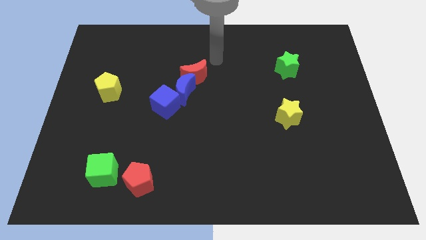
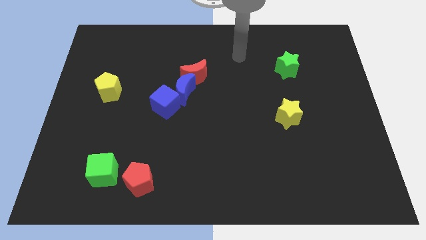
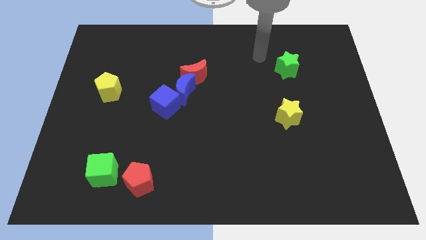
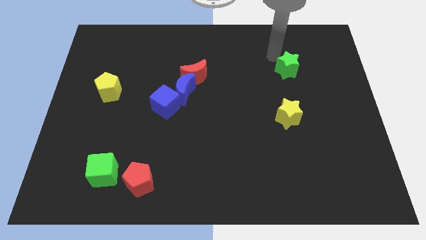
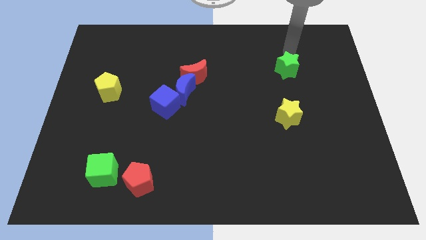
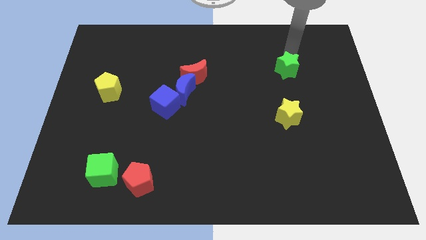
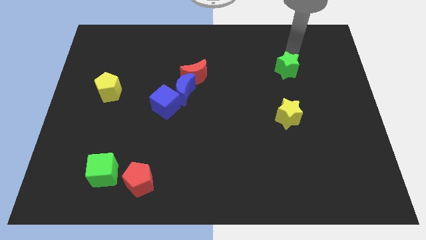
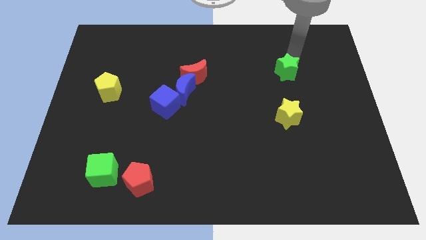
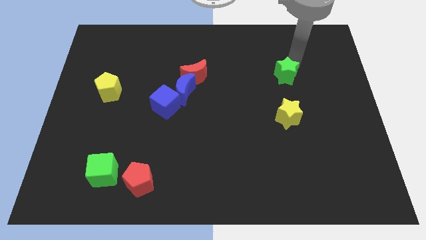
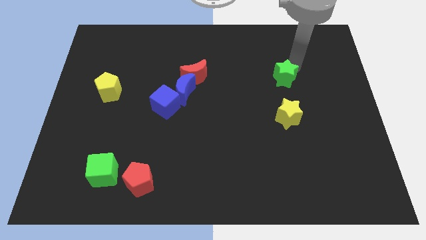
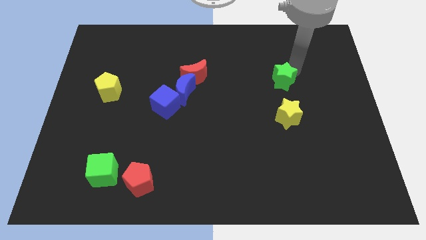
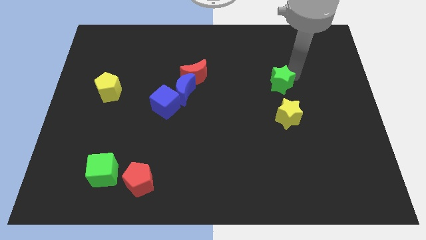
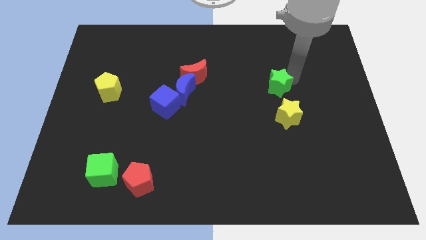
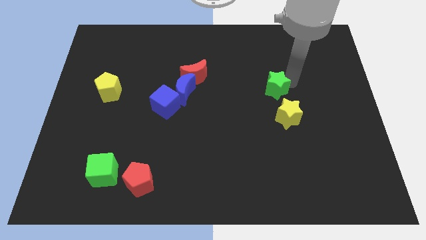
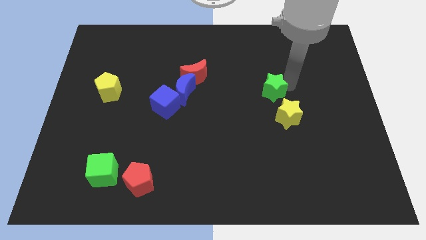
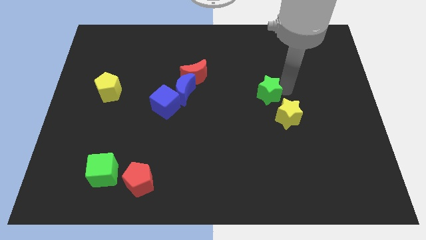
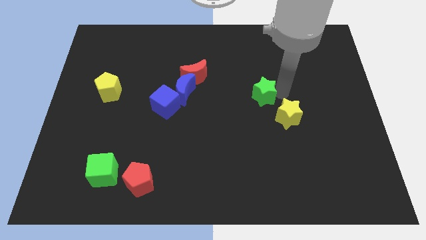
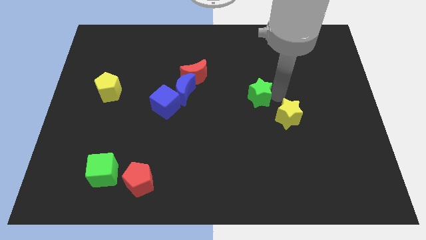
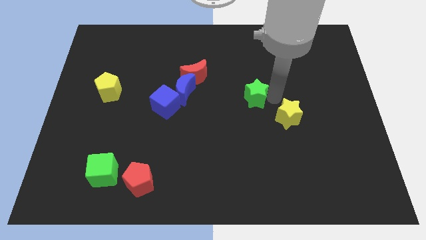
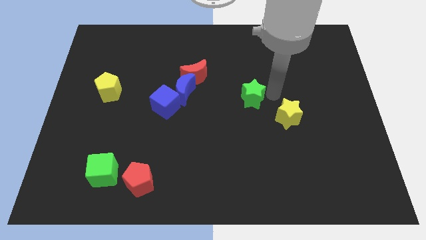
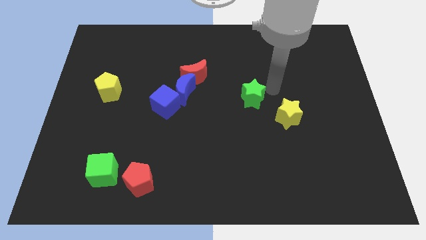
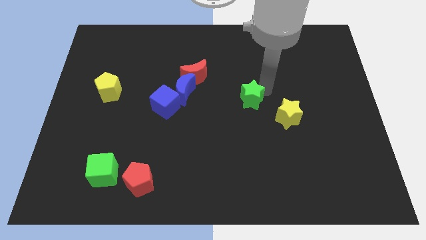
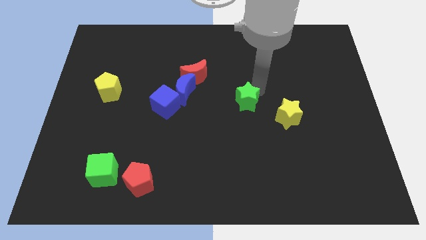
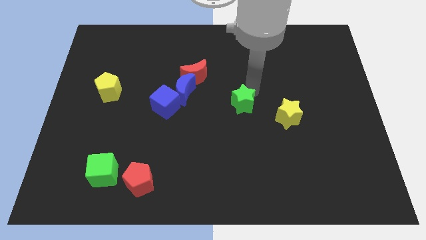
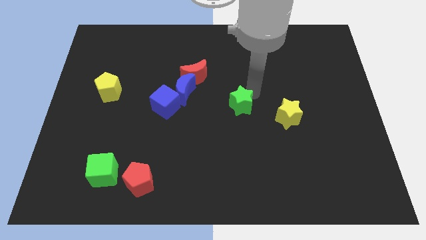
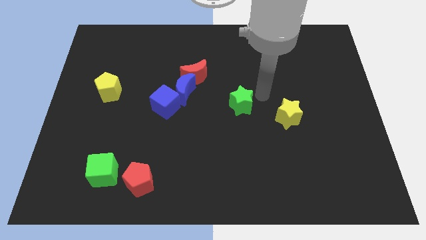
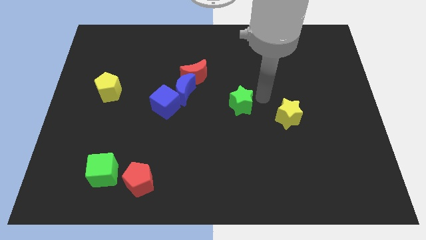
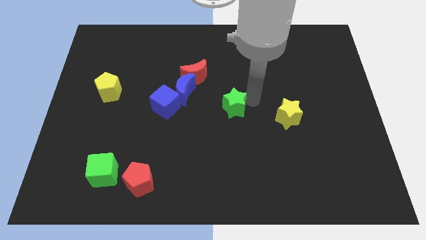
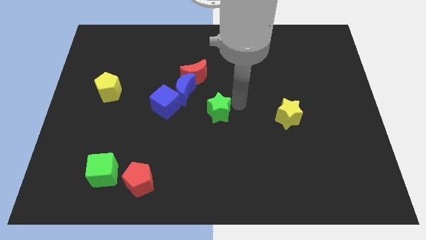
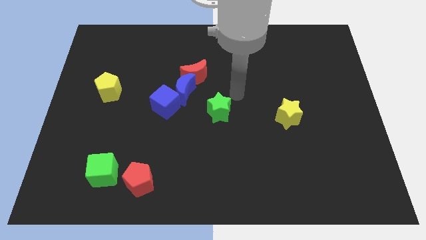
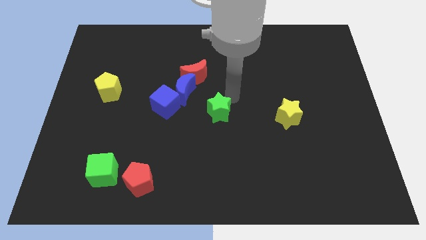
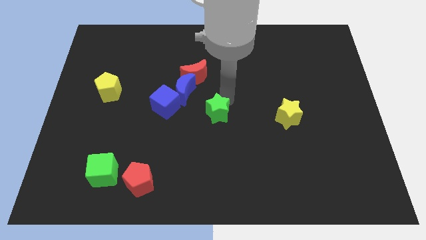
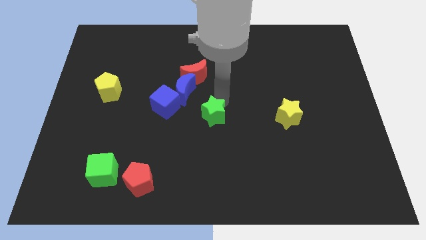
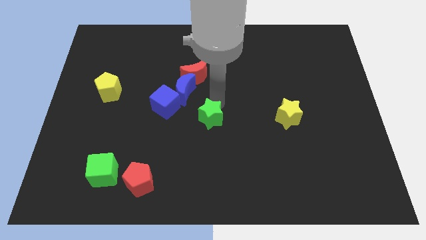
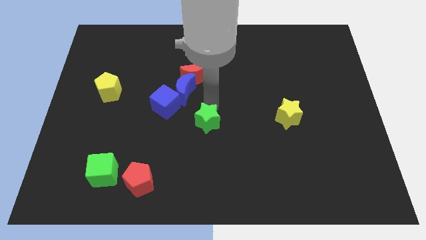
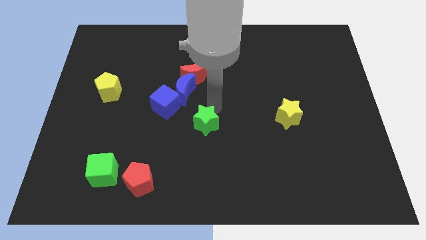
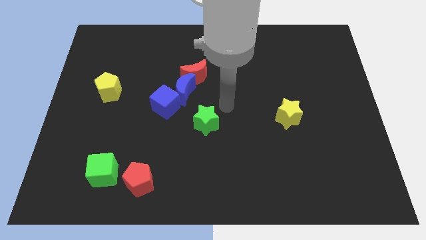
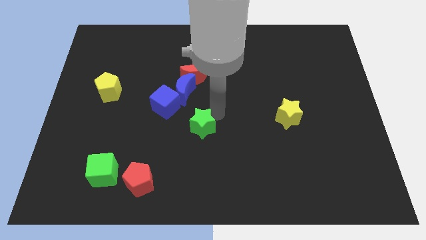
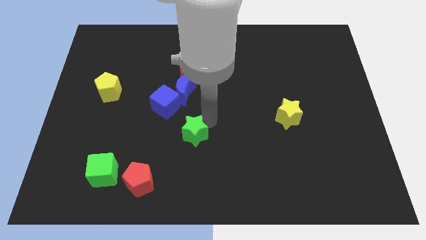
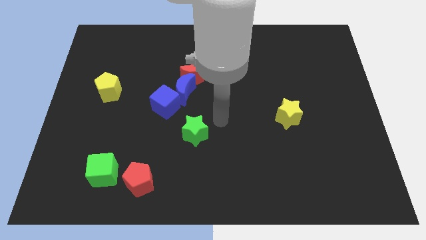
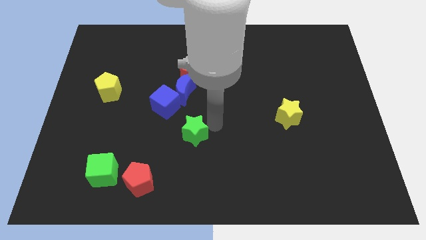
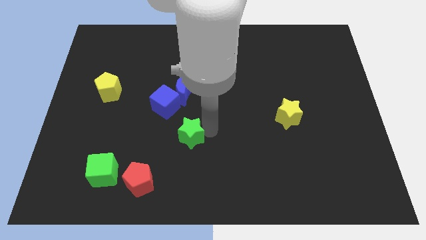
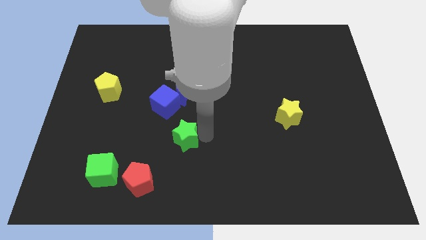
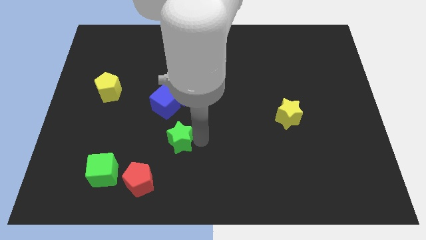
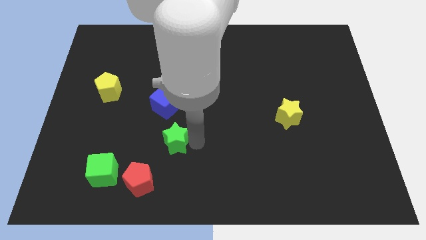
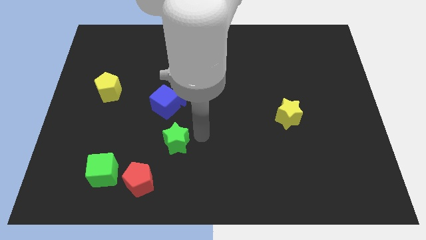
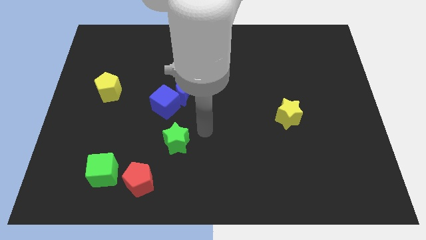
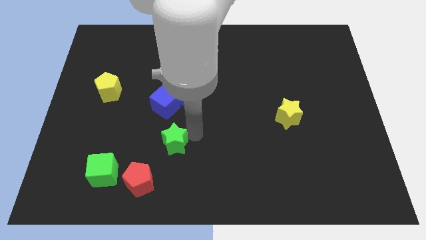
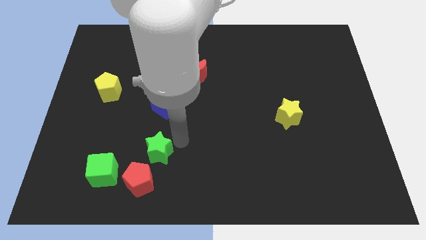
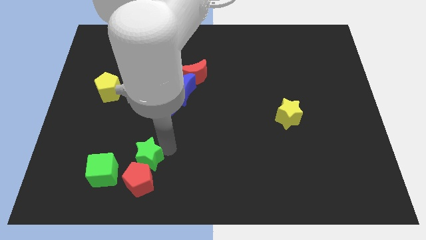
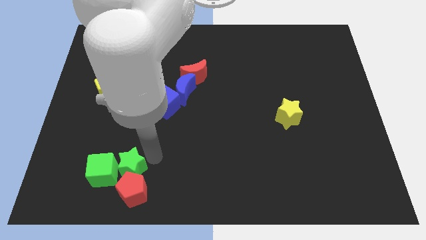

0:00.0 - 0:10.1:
put the green star next to the green cube

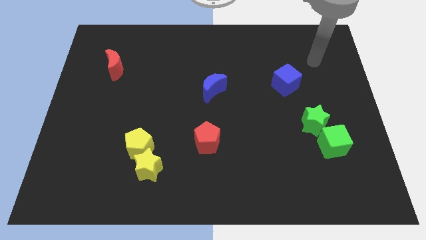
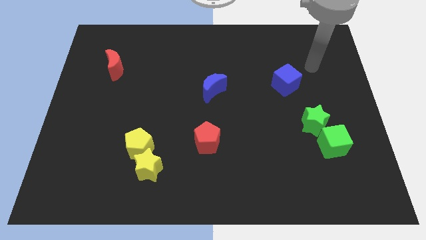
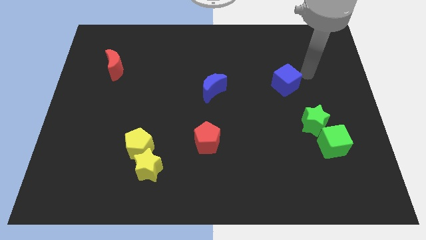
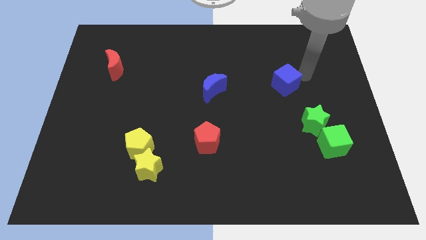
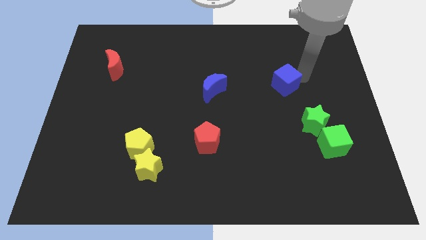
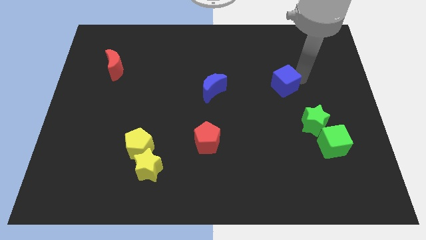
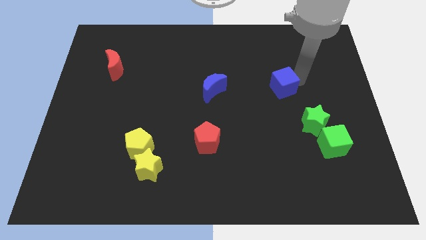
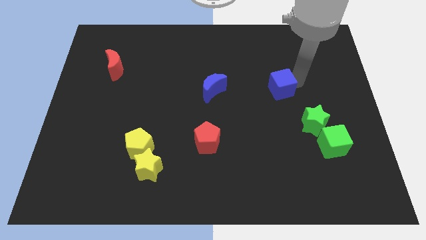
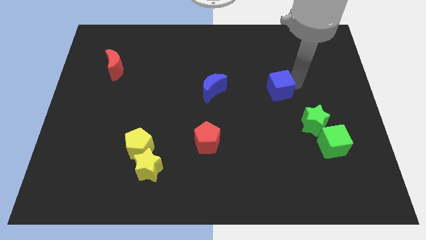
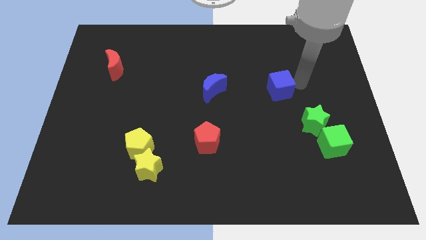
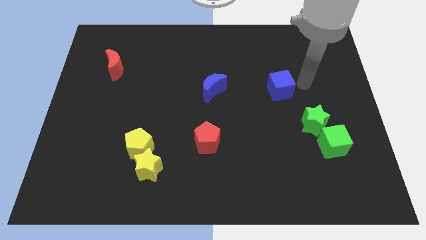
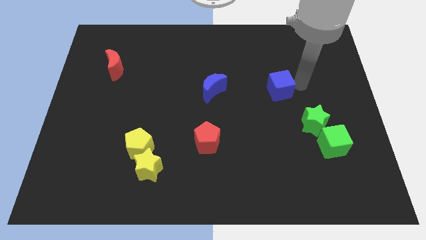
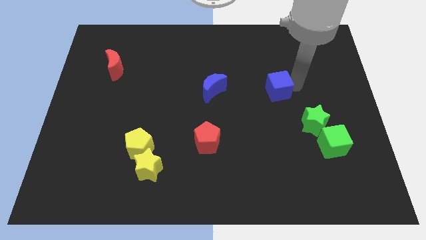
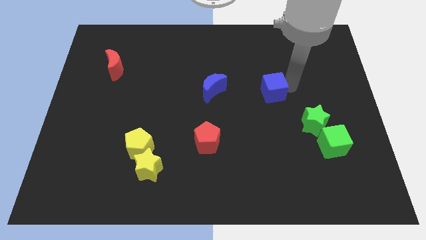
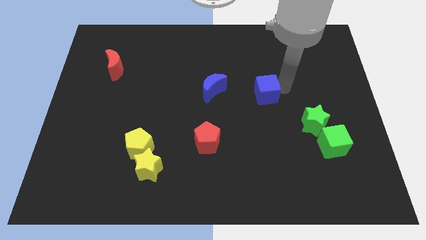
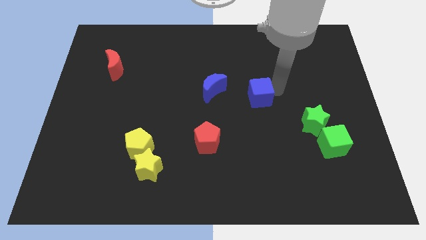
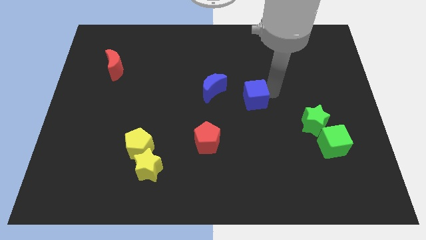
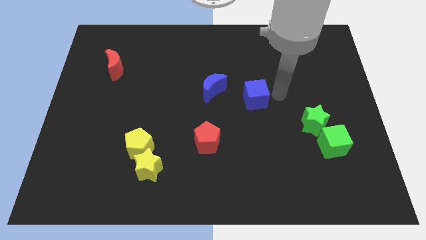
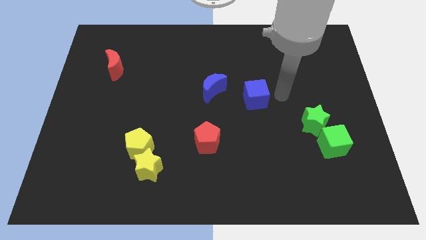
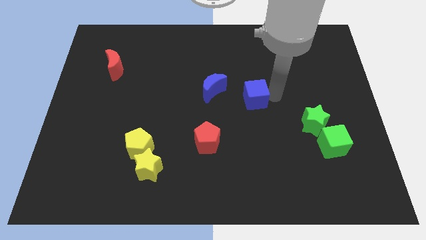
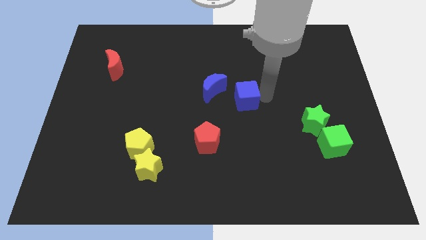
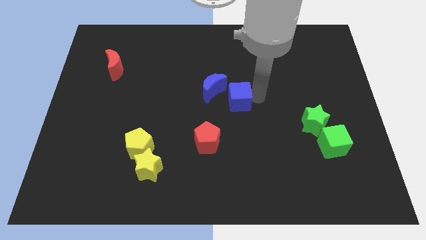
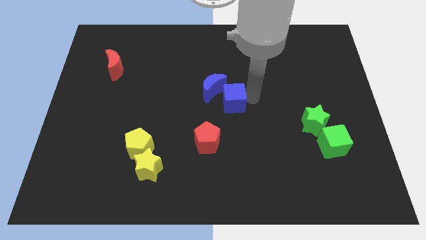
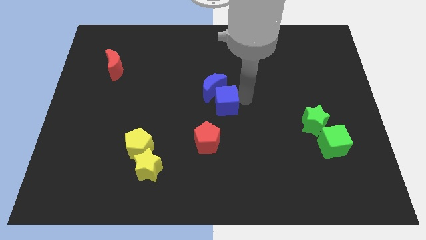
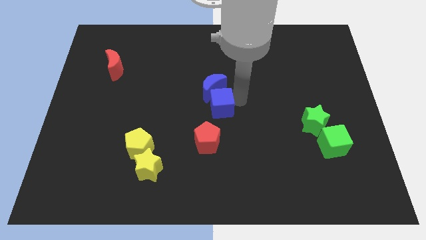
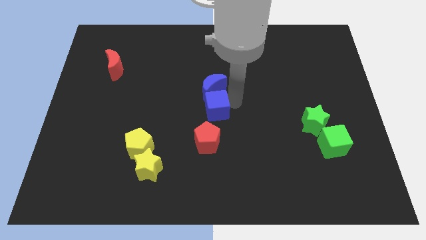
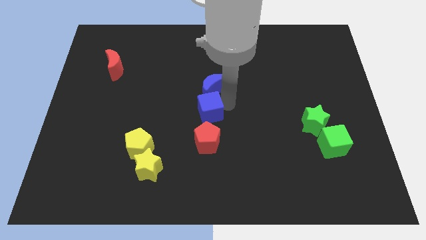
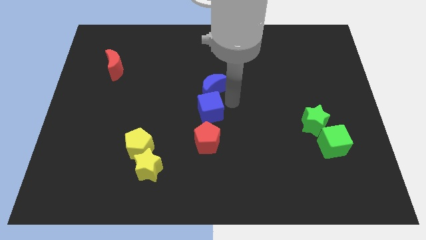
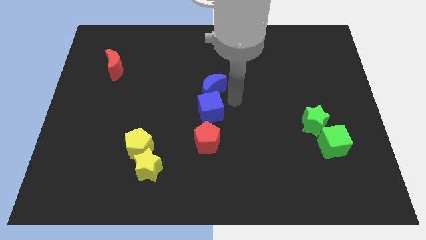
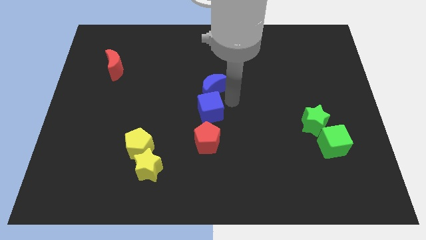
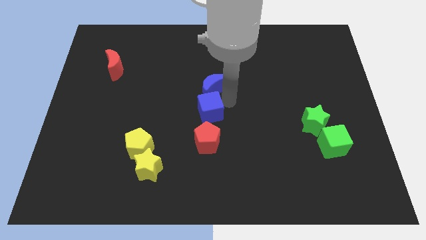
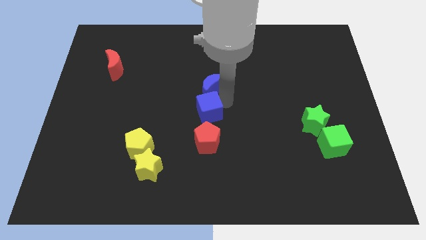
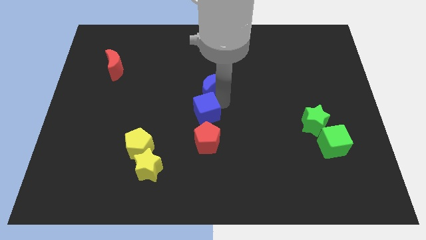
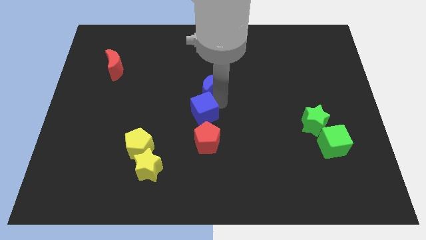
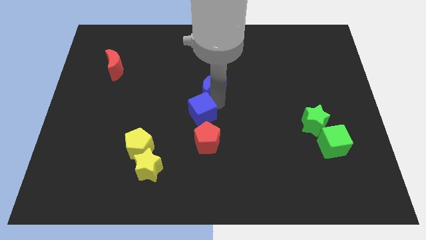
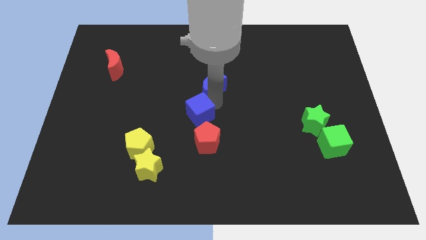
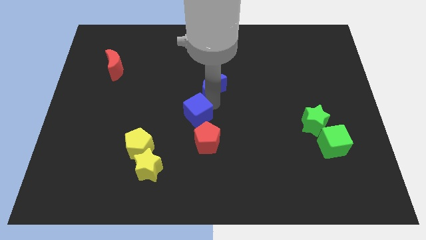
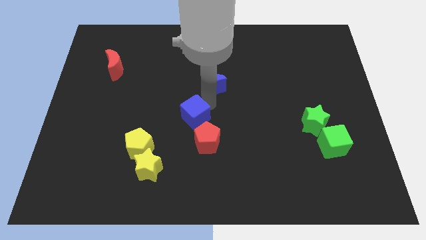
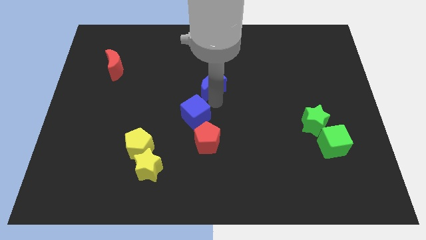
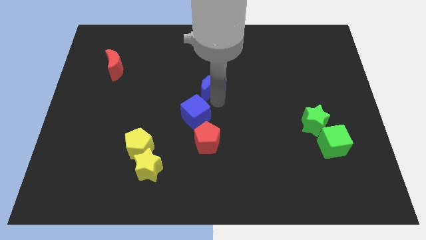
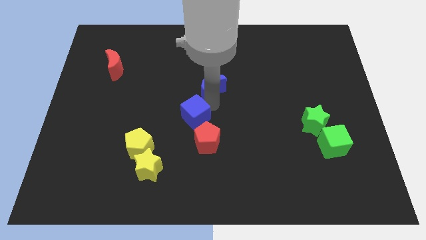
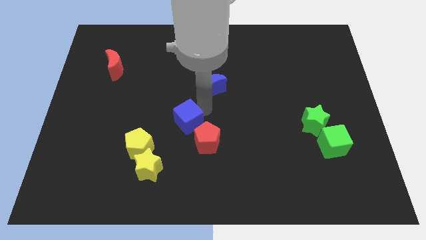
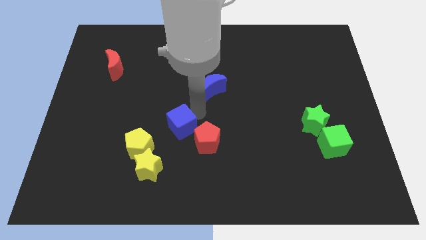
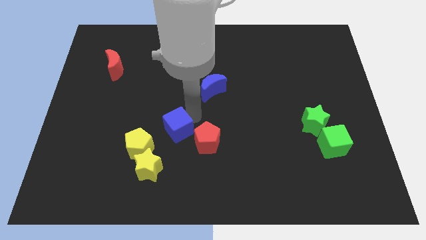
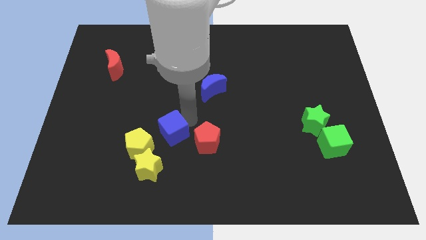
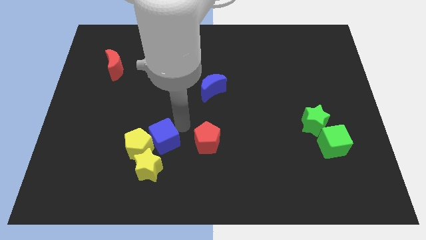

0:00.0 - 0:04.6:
move the blue cube towards the yellow pentagon
